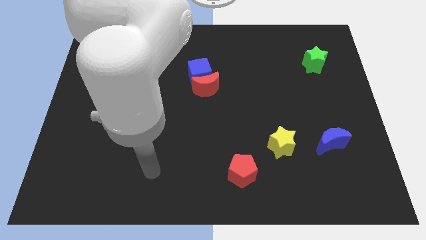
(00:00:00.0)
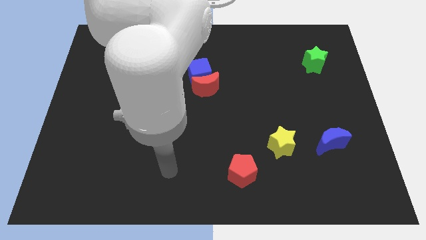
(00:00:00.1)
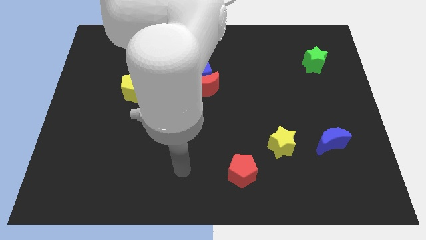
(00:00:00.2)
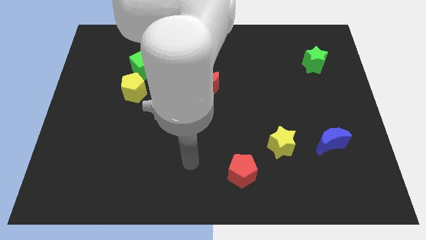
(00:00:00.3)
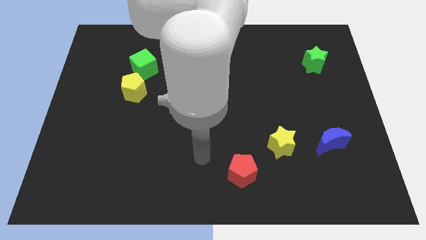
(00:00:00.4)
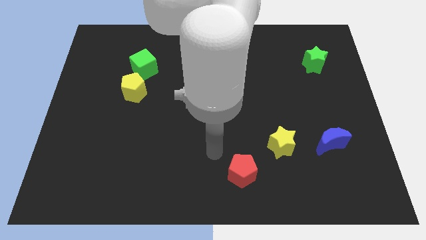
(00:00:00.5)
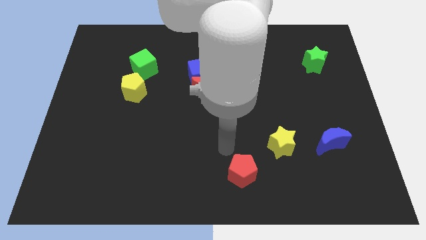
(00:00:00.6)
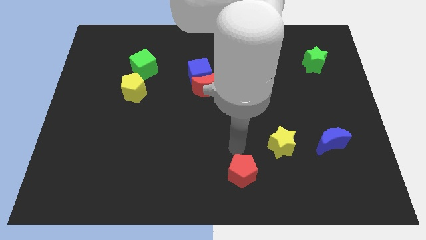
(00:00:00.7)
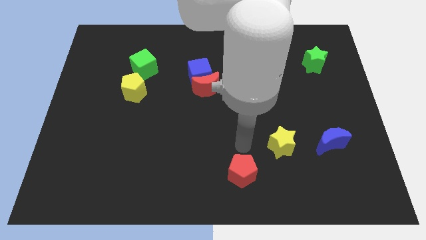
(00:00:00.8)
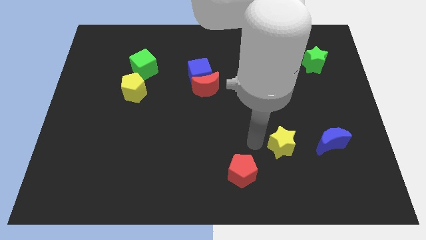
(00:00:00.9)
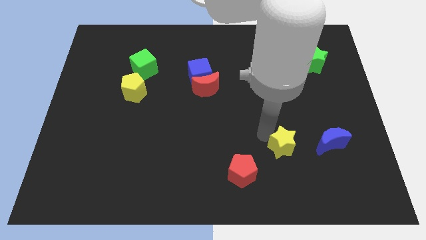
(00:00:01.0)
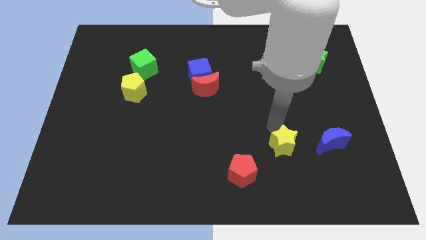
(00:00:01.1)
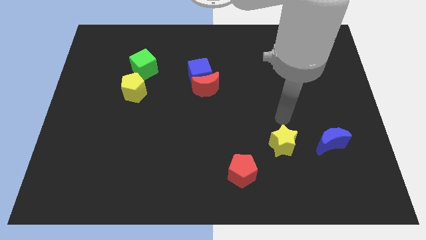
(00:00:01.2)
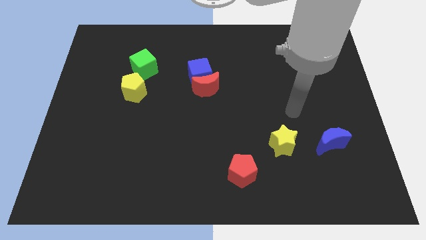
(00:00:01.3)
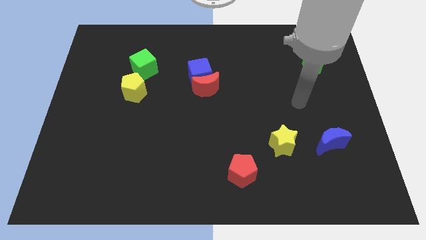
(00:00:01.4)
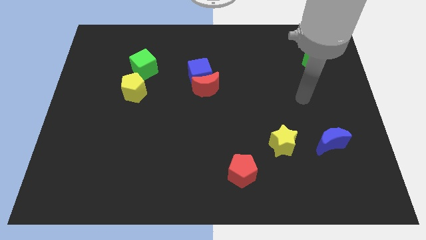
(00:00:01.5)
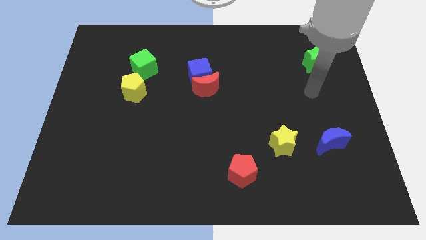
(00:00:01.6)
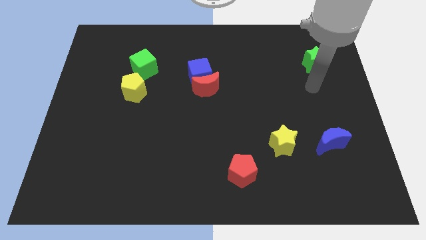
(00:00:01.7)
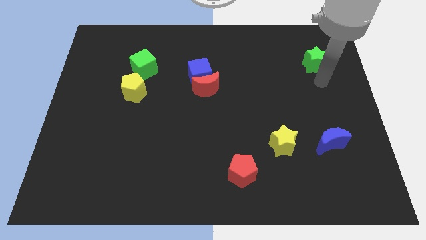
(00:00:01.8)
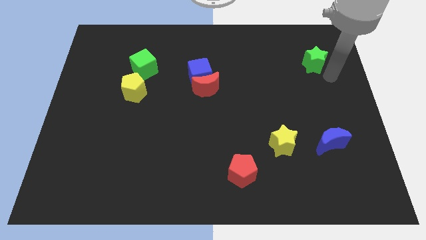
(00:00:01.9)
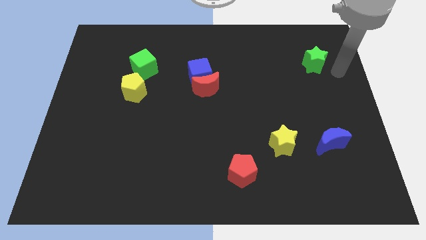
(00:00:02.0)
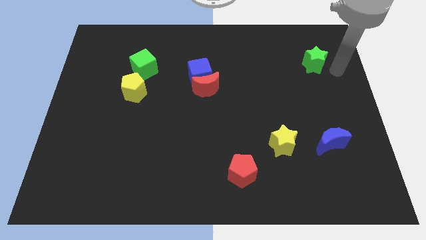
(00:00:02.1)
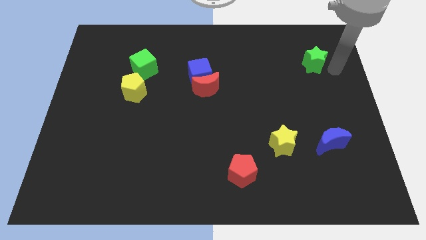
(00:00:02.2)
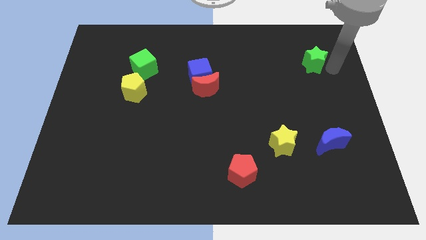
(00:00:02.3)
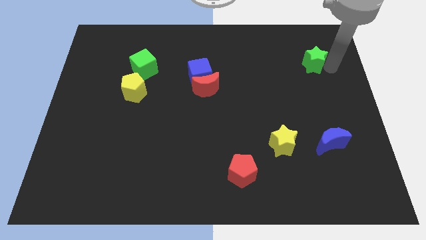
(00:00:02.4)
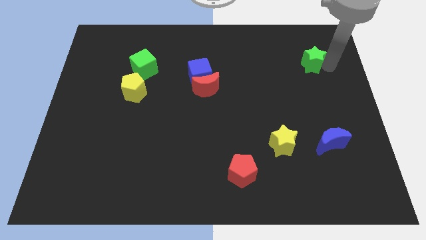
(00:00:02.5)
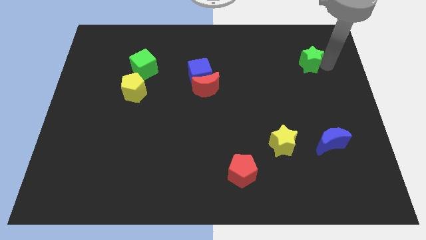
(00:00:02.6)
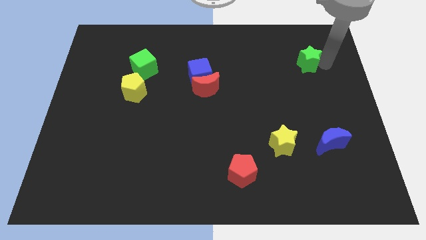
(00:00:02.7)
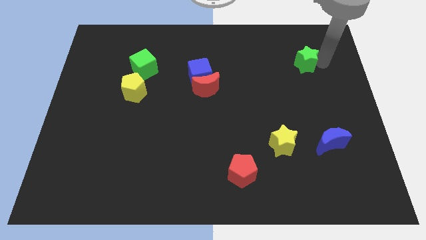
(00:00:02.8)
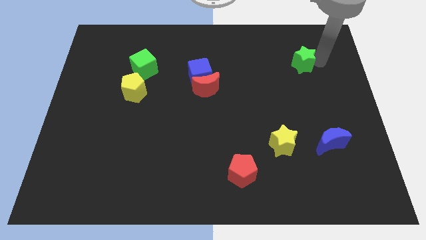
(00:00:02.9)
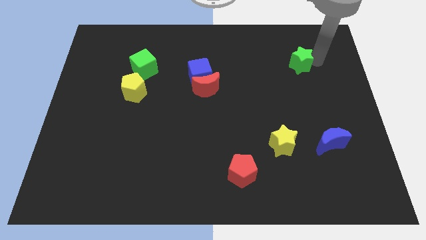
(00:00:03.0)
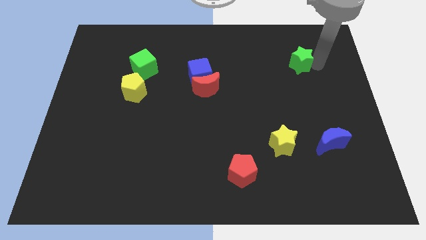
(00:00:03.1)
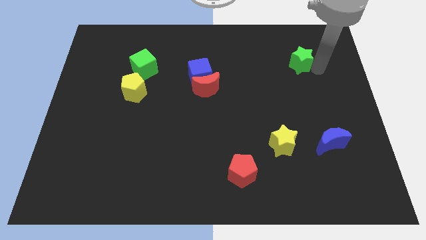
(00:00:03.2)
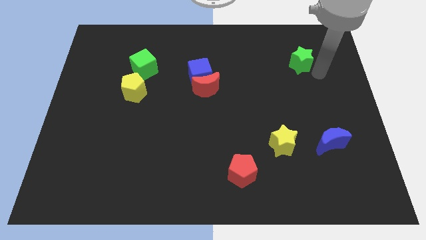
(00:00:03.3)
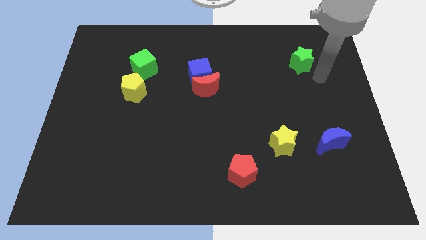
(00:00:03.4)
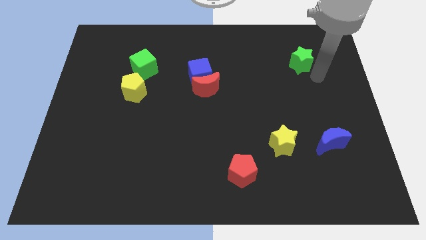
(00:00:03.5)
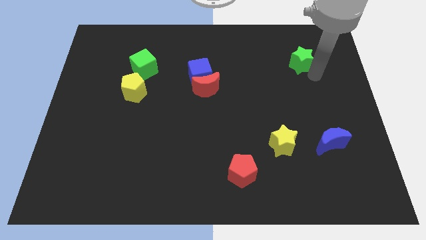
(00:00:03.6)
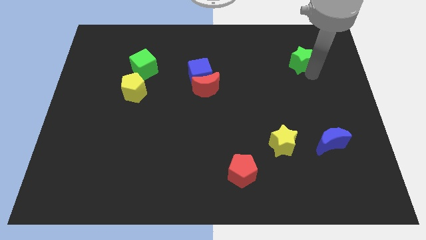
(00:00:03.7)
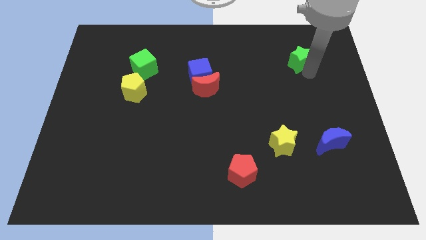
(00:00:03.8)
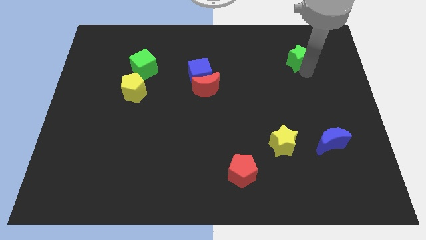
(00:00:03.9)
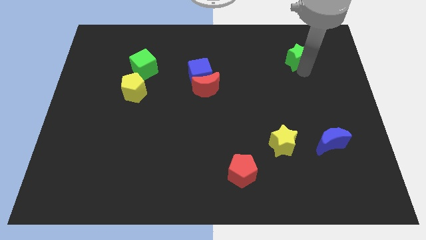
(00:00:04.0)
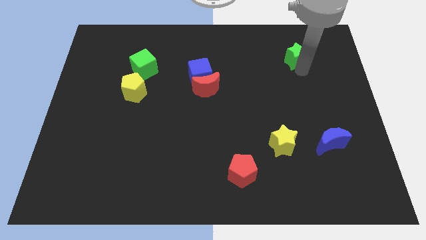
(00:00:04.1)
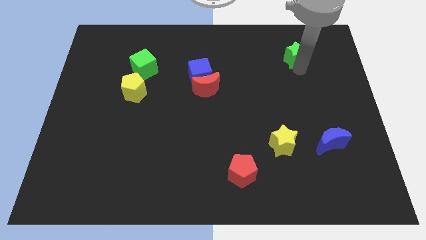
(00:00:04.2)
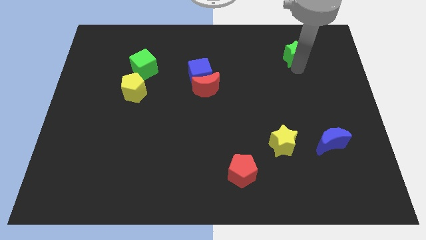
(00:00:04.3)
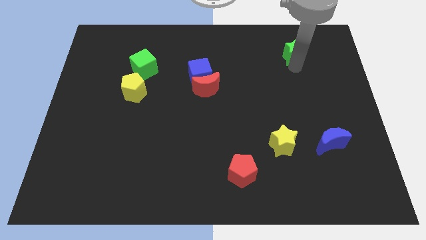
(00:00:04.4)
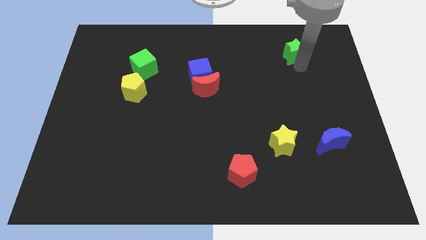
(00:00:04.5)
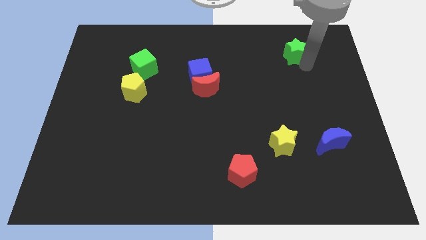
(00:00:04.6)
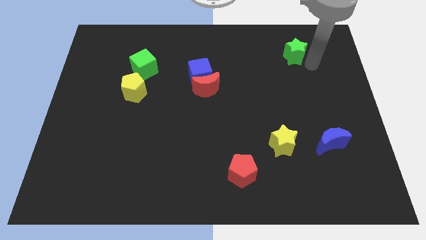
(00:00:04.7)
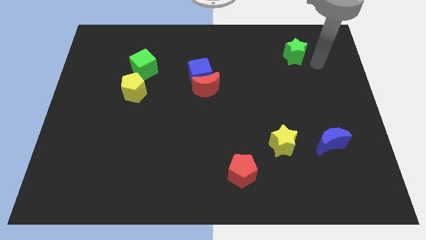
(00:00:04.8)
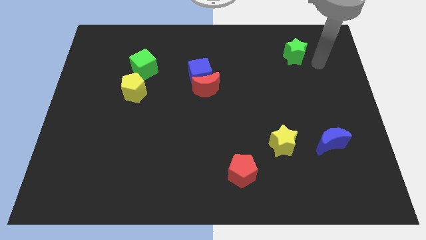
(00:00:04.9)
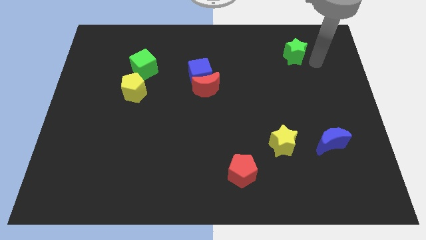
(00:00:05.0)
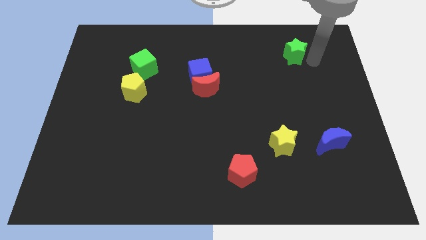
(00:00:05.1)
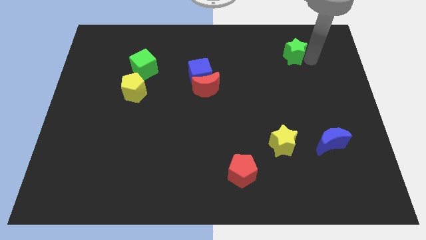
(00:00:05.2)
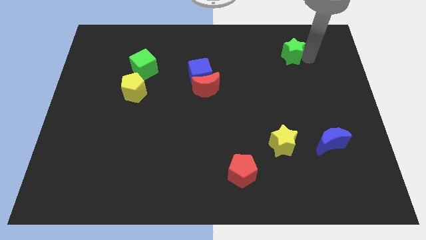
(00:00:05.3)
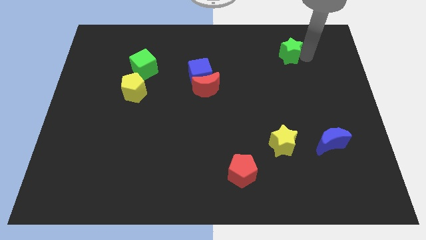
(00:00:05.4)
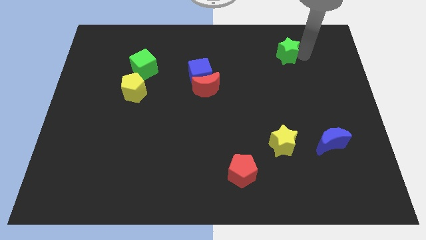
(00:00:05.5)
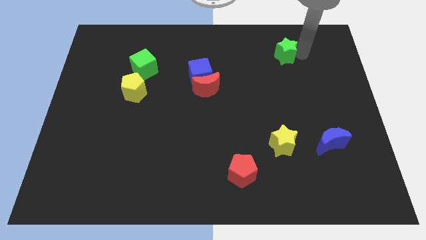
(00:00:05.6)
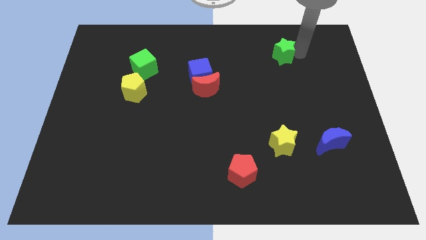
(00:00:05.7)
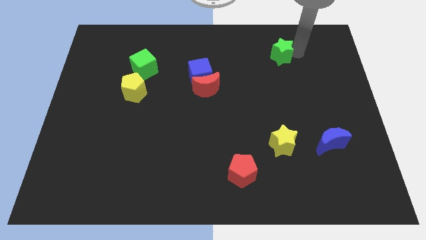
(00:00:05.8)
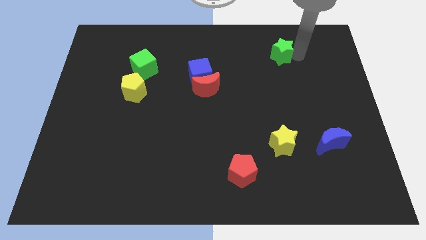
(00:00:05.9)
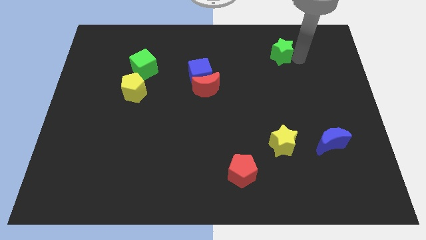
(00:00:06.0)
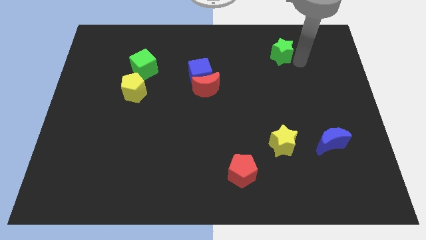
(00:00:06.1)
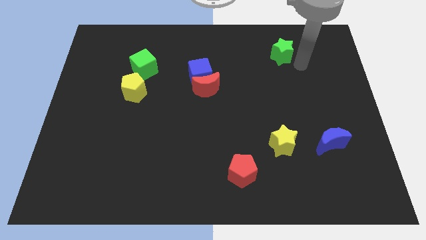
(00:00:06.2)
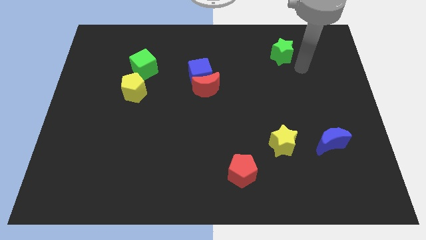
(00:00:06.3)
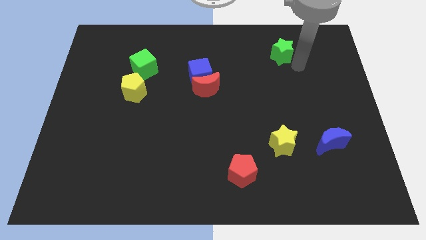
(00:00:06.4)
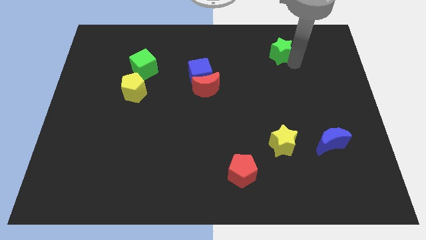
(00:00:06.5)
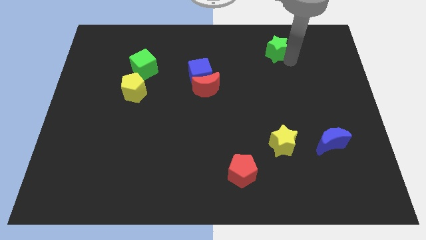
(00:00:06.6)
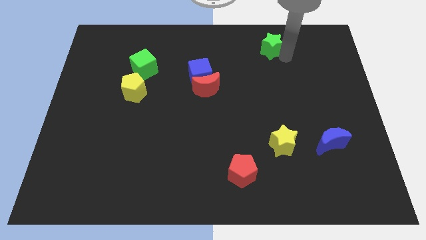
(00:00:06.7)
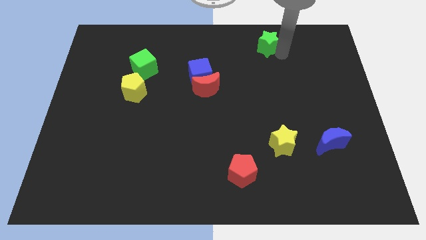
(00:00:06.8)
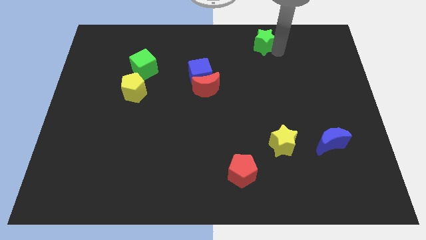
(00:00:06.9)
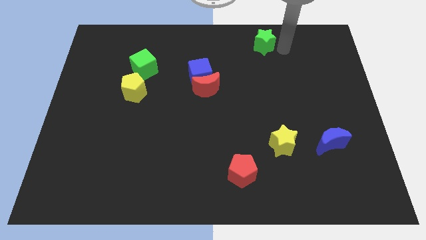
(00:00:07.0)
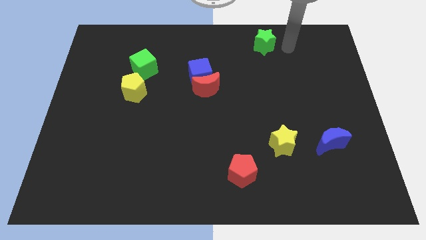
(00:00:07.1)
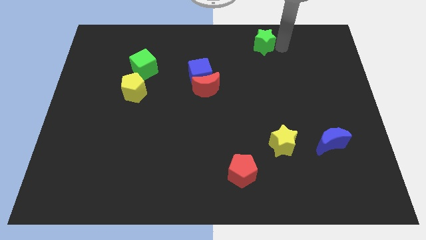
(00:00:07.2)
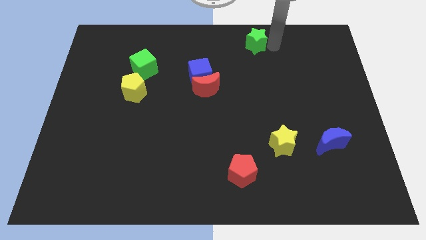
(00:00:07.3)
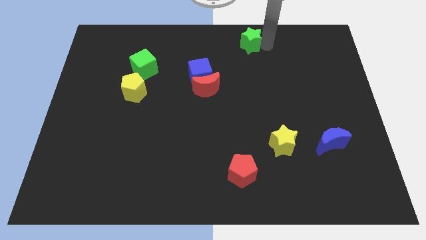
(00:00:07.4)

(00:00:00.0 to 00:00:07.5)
move the green star to the towards your base

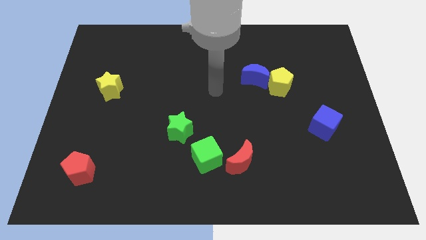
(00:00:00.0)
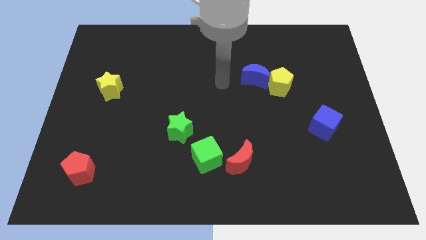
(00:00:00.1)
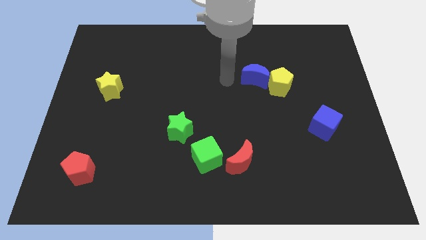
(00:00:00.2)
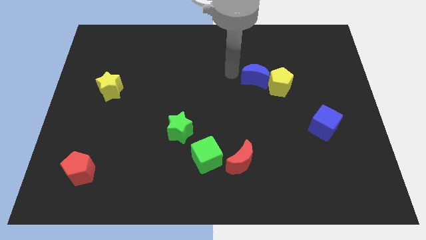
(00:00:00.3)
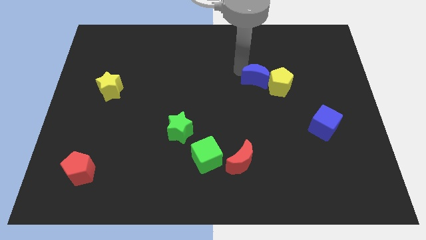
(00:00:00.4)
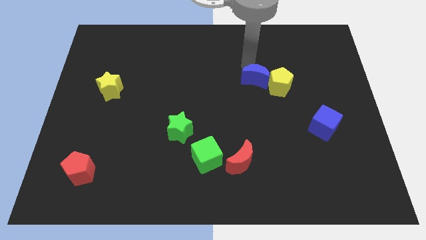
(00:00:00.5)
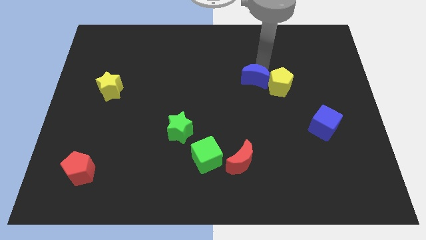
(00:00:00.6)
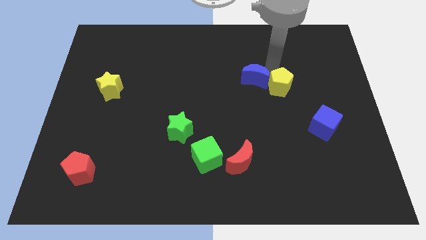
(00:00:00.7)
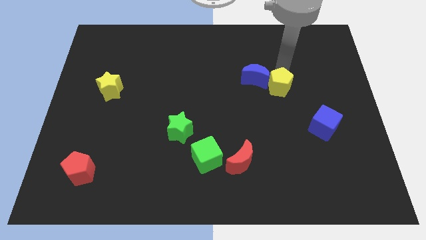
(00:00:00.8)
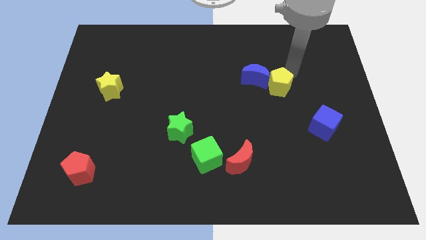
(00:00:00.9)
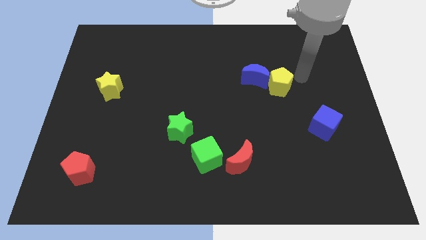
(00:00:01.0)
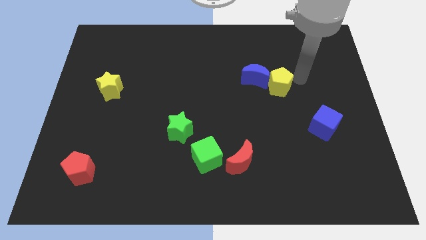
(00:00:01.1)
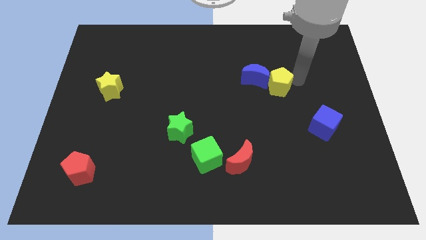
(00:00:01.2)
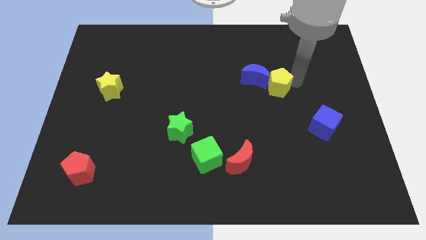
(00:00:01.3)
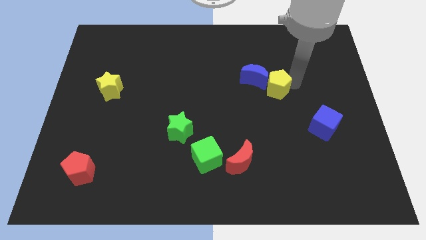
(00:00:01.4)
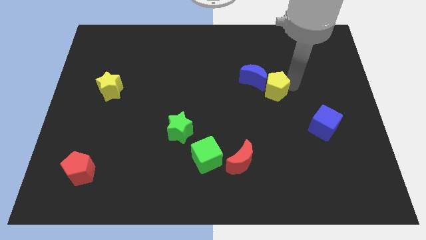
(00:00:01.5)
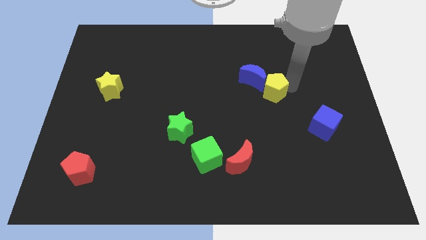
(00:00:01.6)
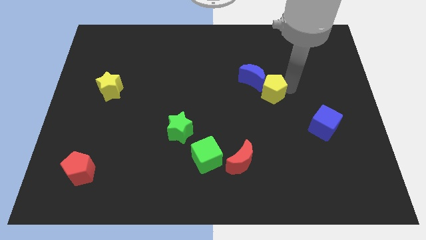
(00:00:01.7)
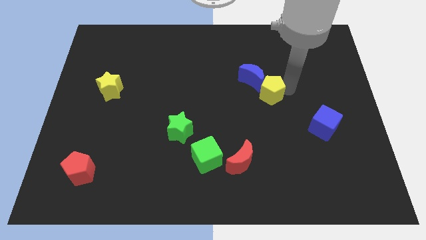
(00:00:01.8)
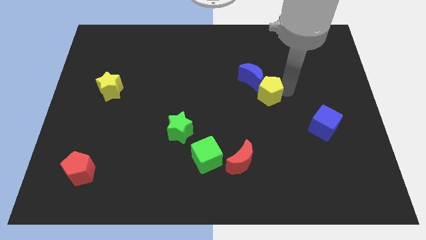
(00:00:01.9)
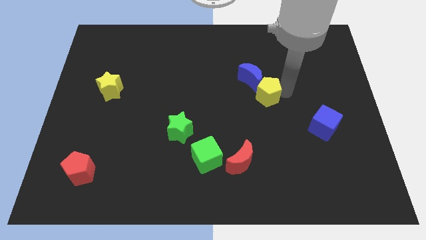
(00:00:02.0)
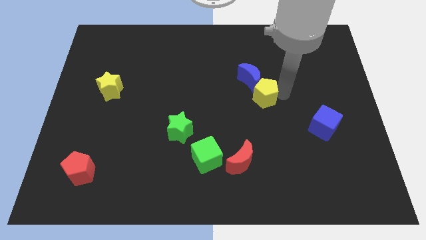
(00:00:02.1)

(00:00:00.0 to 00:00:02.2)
move the yellow pentagon to the center
